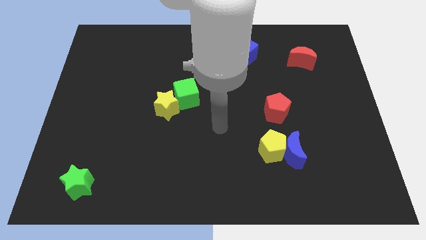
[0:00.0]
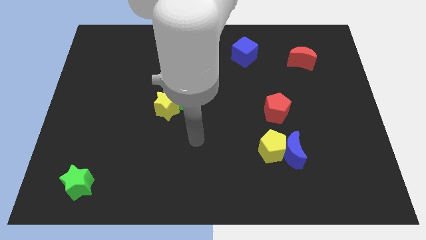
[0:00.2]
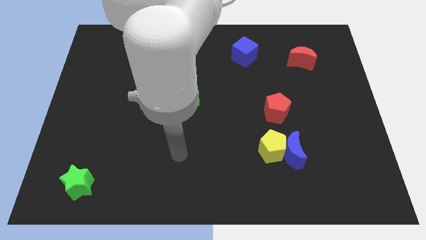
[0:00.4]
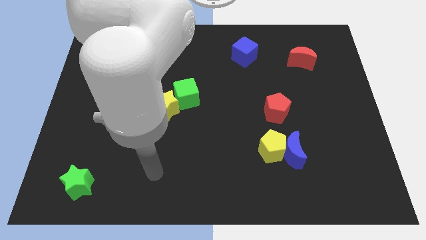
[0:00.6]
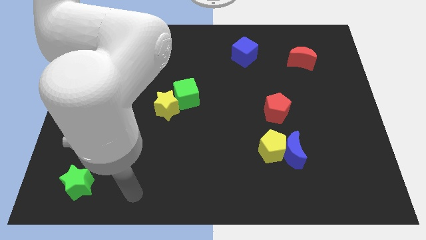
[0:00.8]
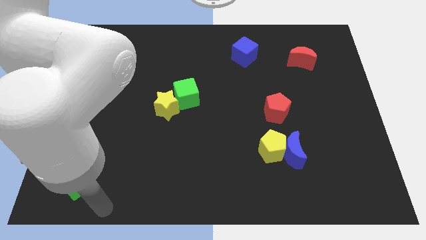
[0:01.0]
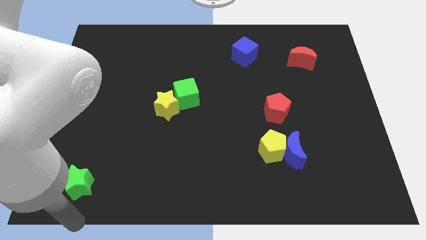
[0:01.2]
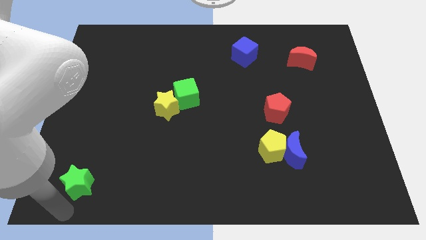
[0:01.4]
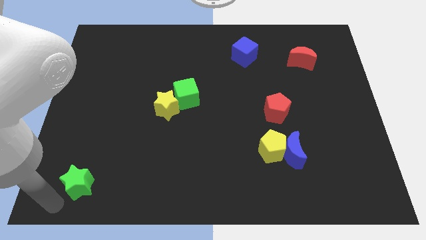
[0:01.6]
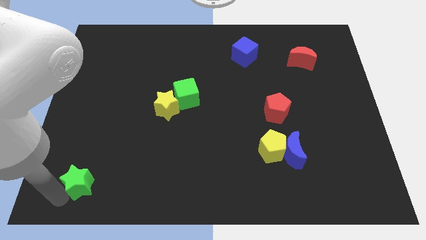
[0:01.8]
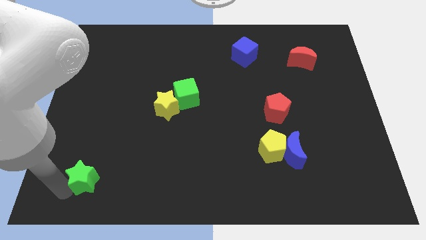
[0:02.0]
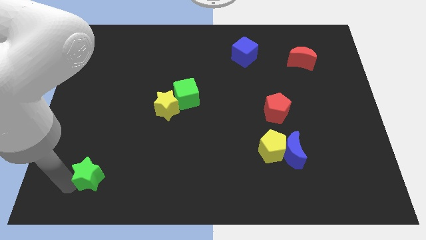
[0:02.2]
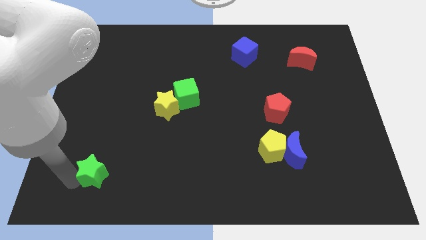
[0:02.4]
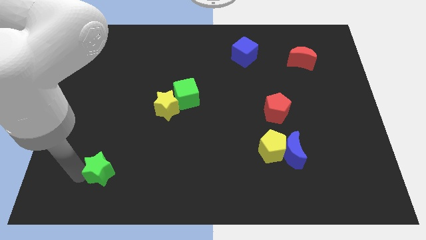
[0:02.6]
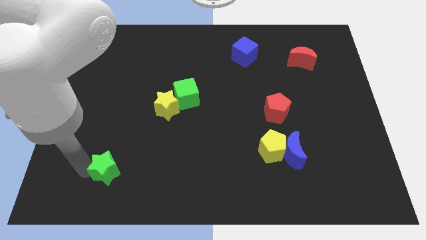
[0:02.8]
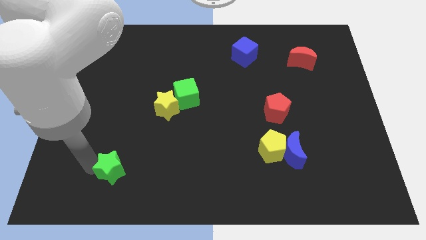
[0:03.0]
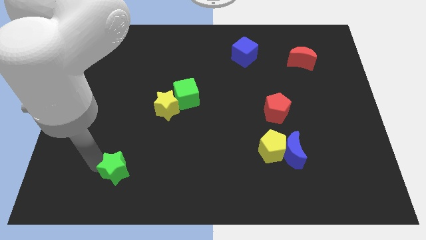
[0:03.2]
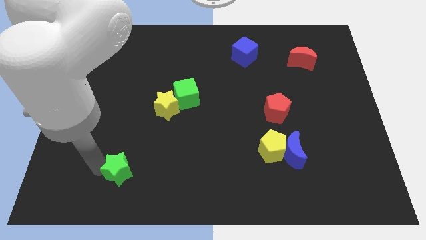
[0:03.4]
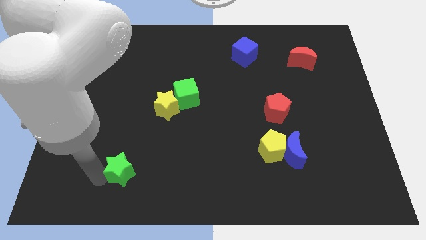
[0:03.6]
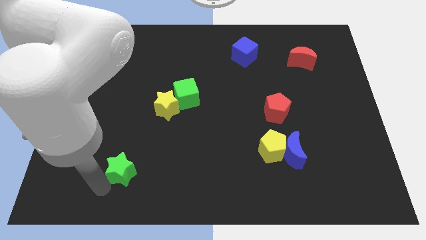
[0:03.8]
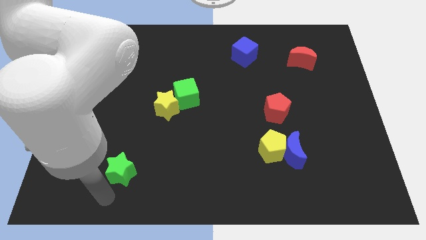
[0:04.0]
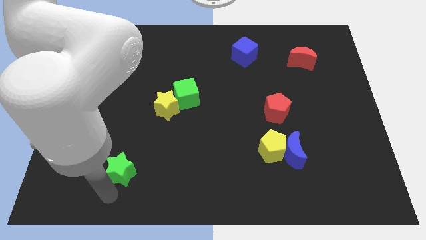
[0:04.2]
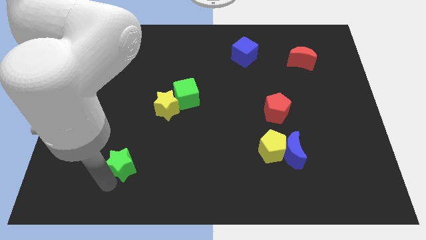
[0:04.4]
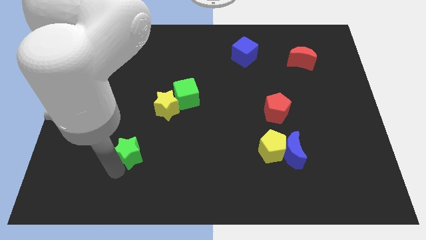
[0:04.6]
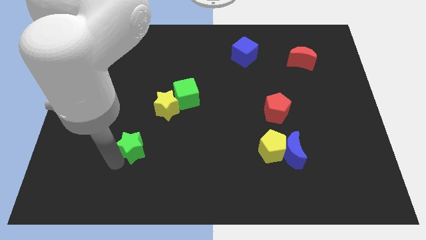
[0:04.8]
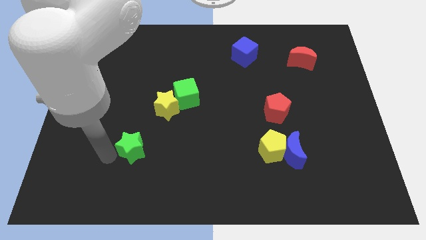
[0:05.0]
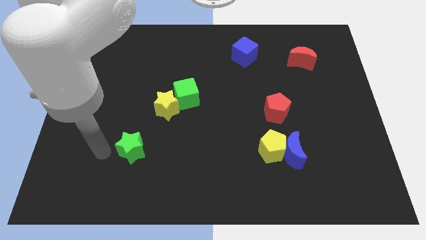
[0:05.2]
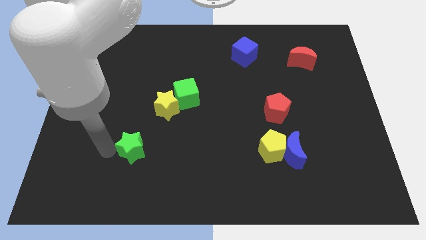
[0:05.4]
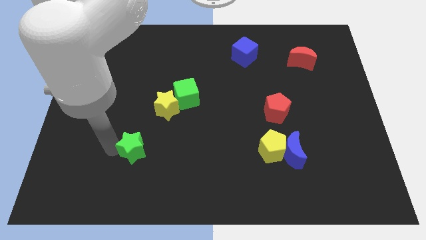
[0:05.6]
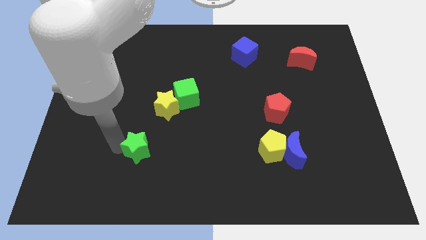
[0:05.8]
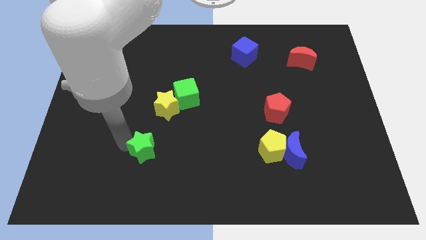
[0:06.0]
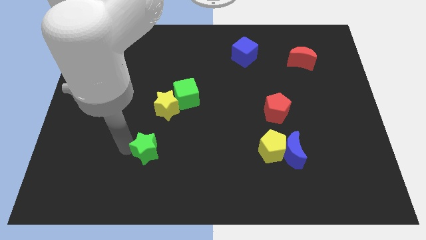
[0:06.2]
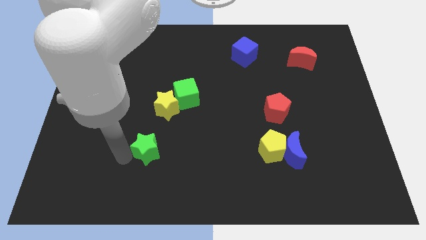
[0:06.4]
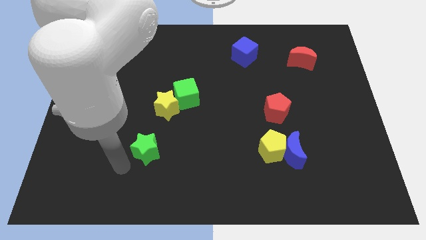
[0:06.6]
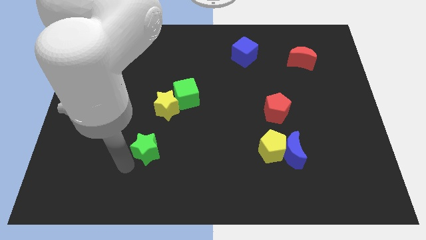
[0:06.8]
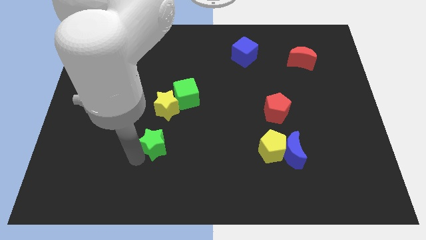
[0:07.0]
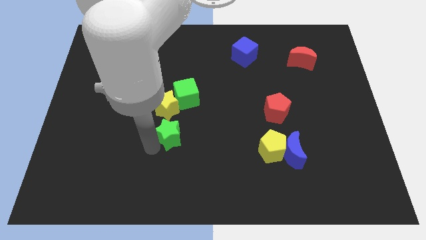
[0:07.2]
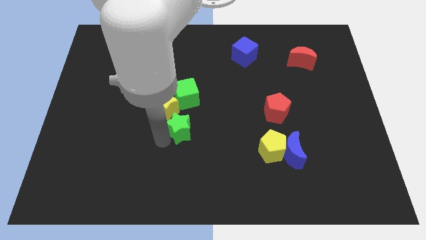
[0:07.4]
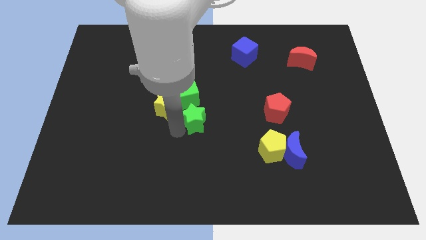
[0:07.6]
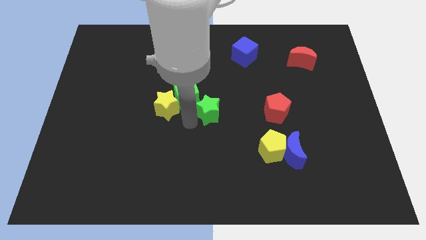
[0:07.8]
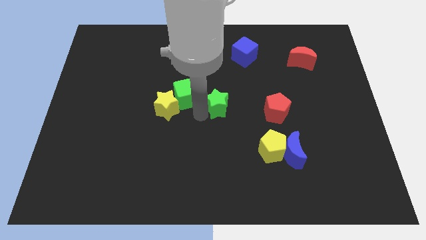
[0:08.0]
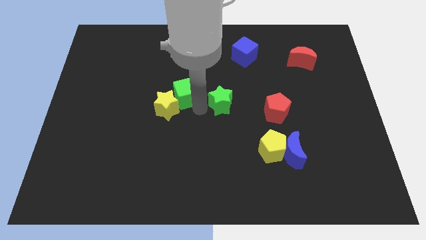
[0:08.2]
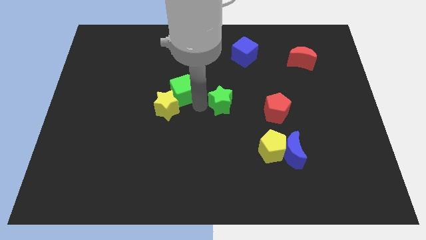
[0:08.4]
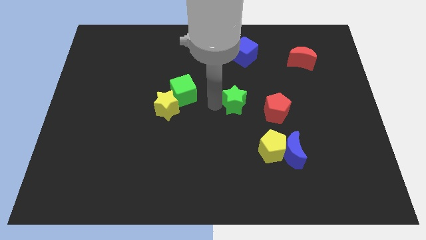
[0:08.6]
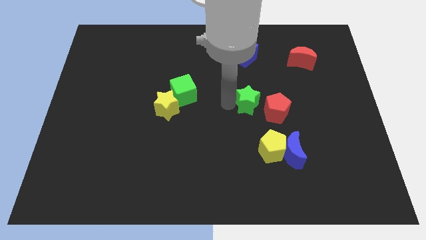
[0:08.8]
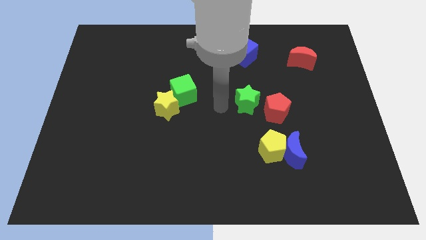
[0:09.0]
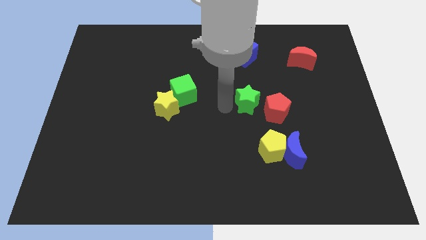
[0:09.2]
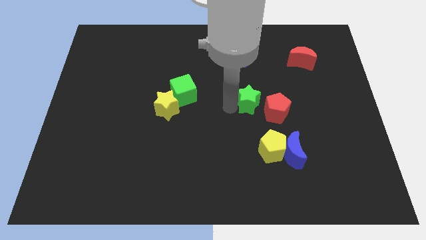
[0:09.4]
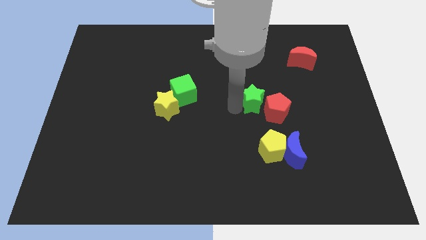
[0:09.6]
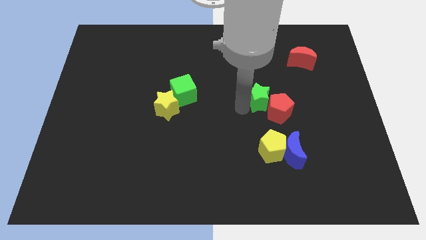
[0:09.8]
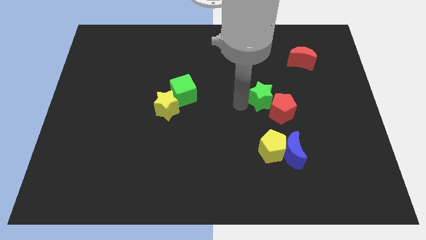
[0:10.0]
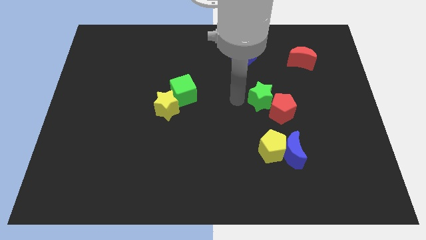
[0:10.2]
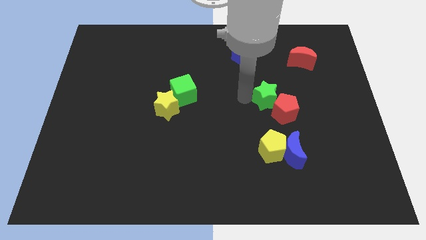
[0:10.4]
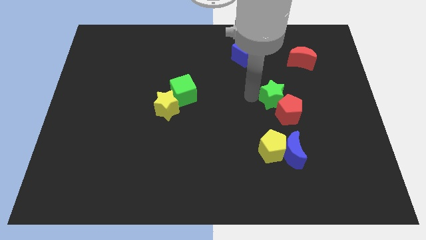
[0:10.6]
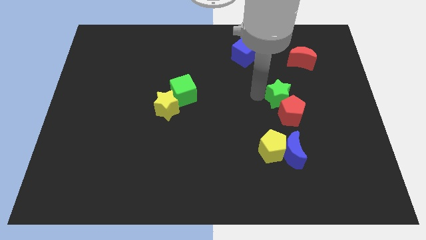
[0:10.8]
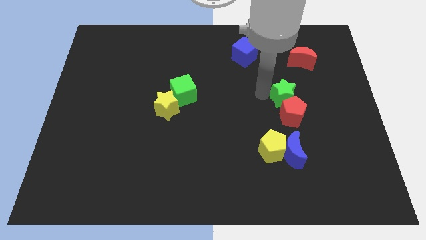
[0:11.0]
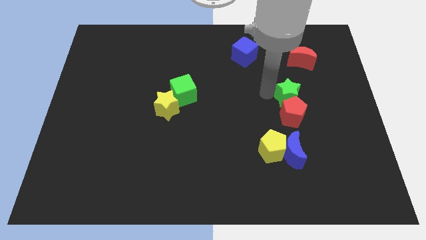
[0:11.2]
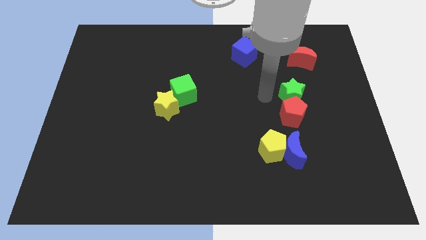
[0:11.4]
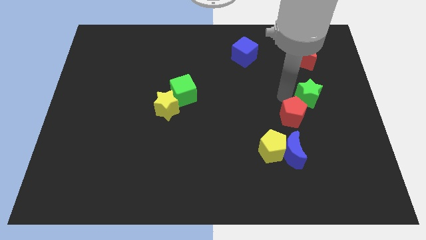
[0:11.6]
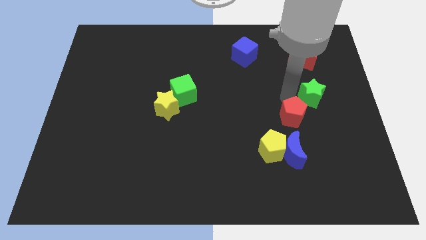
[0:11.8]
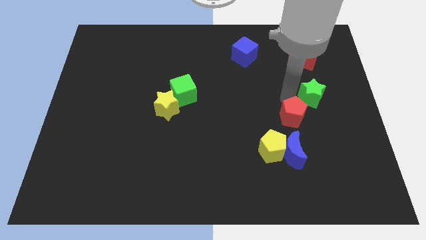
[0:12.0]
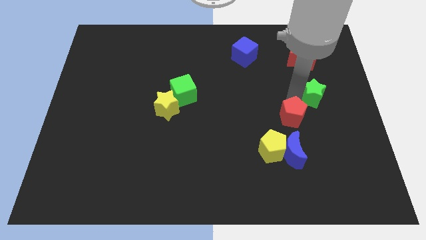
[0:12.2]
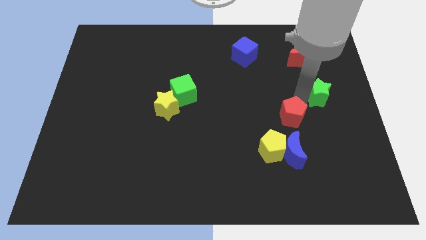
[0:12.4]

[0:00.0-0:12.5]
slide the green star to the right side
